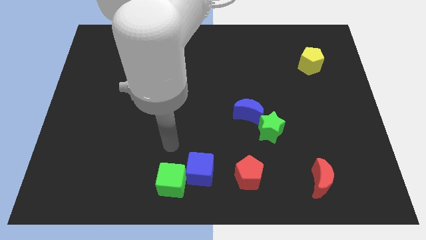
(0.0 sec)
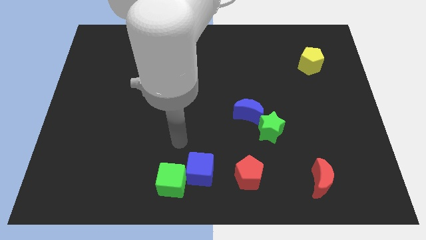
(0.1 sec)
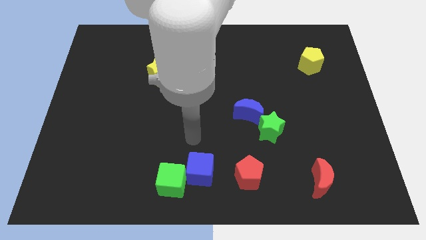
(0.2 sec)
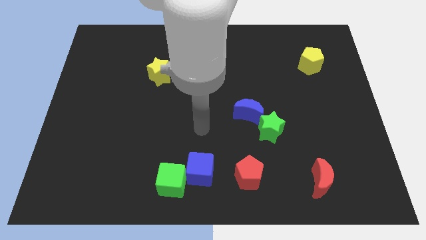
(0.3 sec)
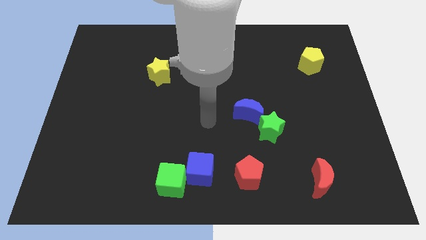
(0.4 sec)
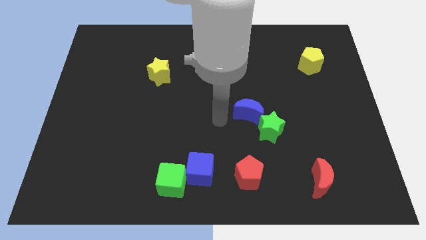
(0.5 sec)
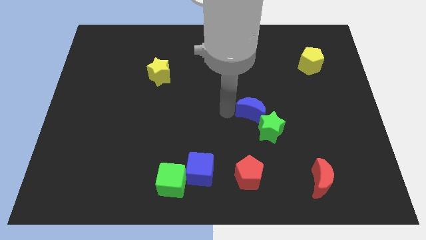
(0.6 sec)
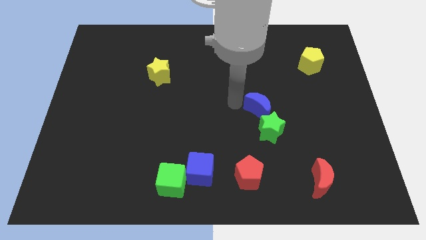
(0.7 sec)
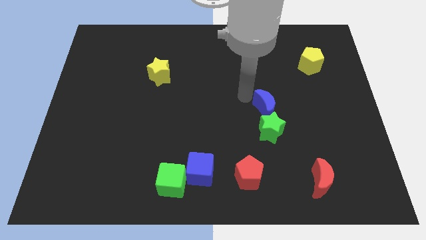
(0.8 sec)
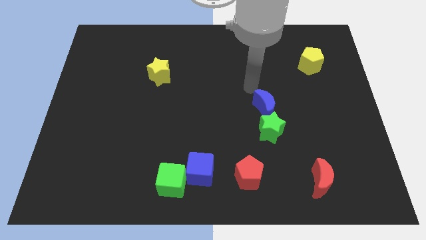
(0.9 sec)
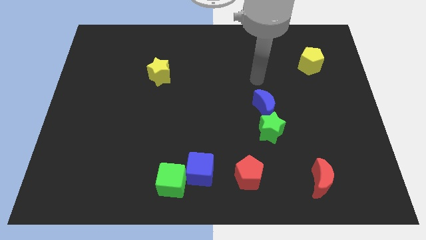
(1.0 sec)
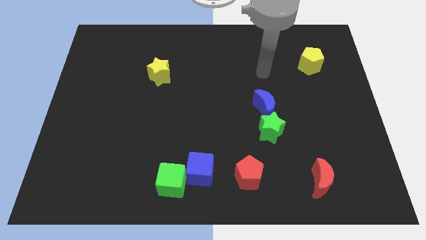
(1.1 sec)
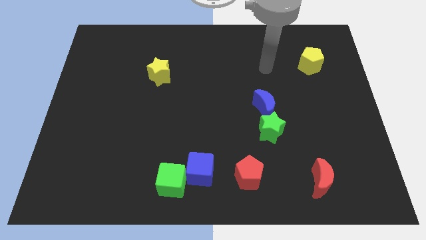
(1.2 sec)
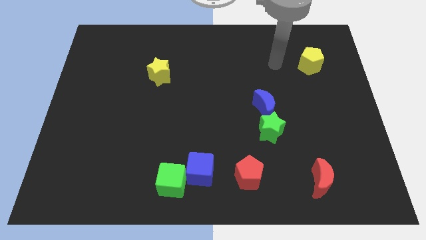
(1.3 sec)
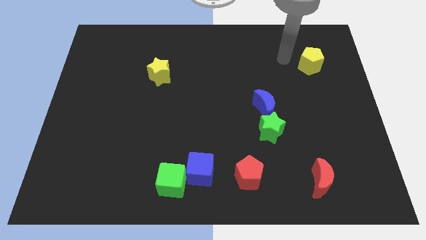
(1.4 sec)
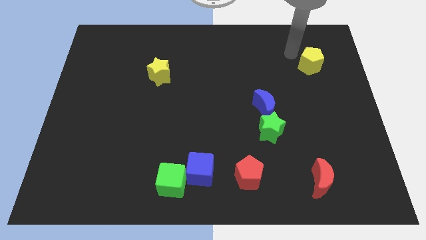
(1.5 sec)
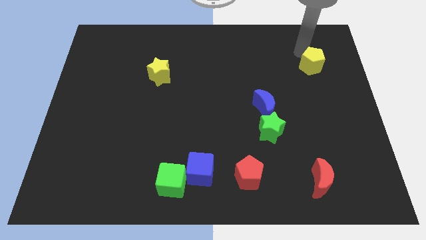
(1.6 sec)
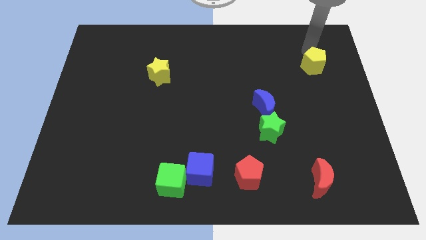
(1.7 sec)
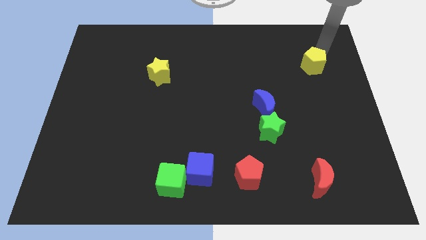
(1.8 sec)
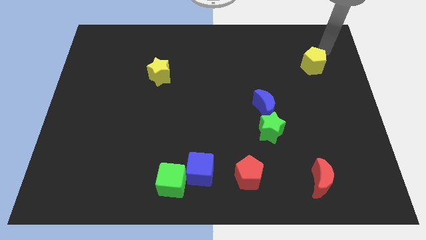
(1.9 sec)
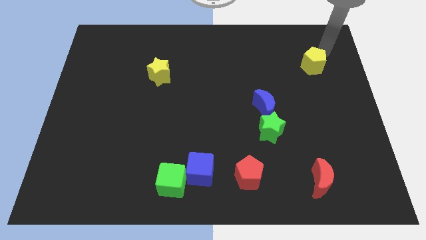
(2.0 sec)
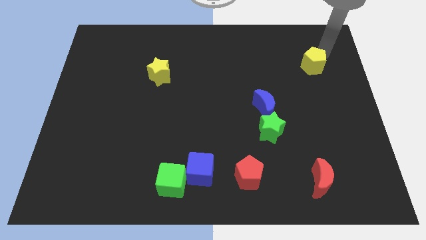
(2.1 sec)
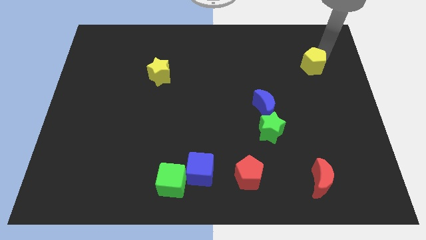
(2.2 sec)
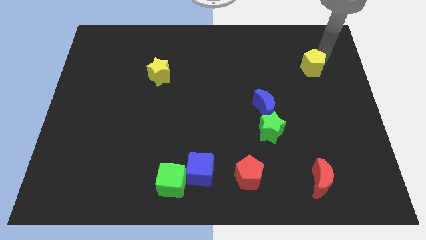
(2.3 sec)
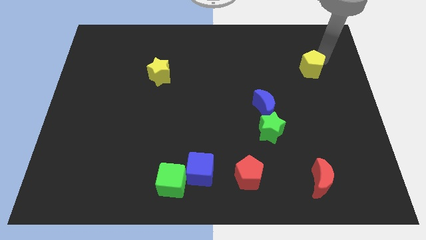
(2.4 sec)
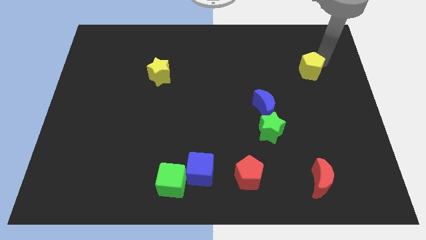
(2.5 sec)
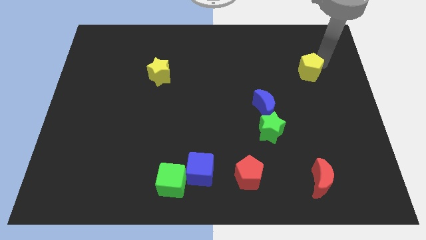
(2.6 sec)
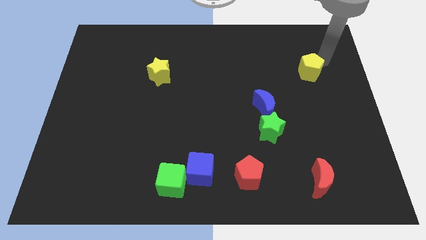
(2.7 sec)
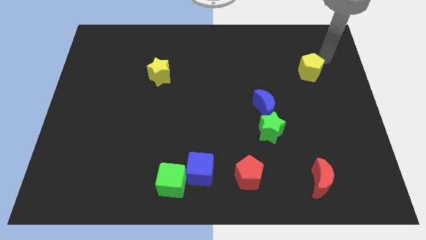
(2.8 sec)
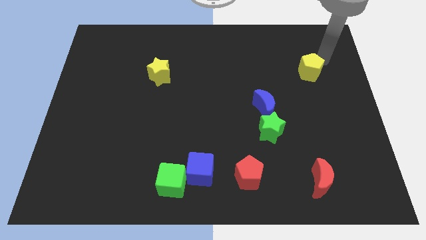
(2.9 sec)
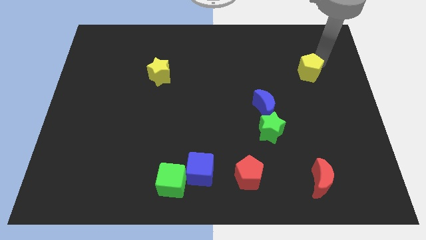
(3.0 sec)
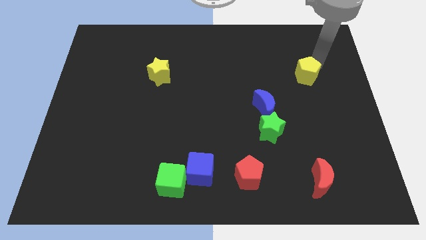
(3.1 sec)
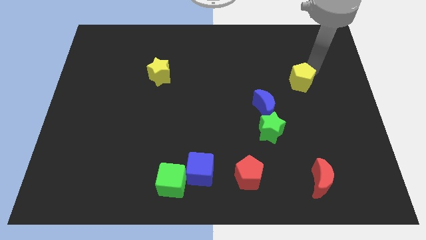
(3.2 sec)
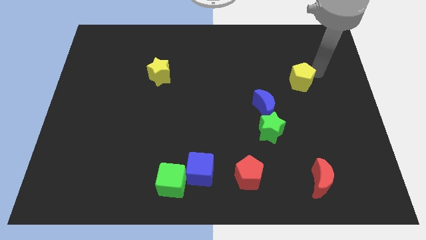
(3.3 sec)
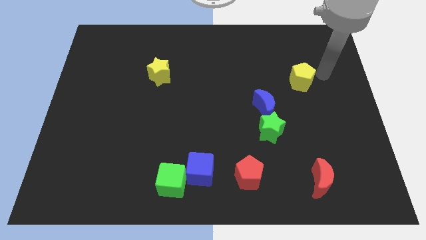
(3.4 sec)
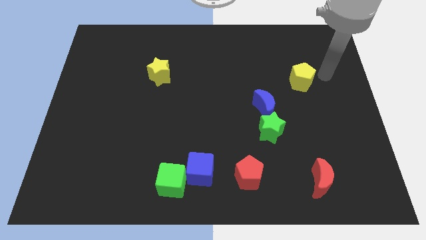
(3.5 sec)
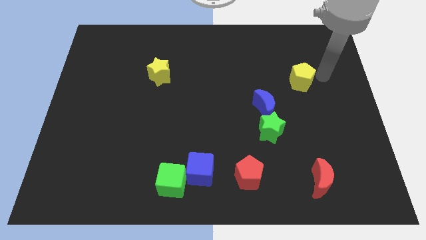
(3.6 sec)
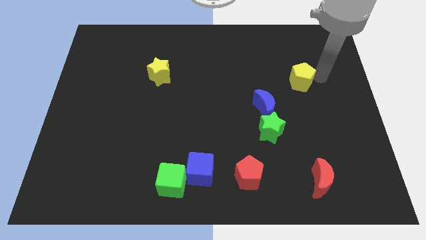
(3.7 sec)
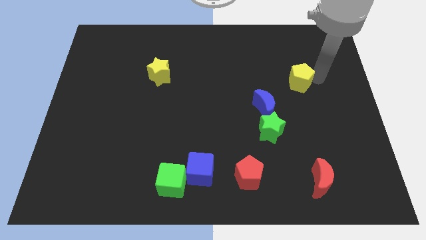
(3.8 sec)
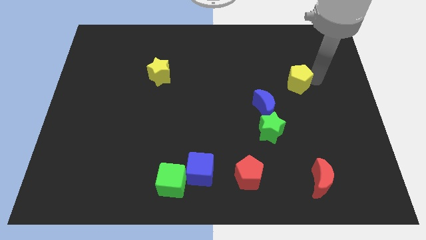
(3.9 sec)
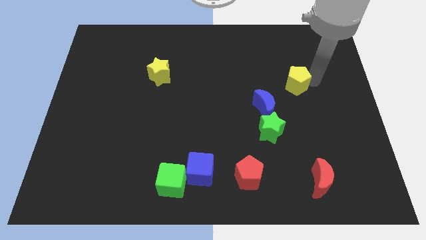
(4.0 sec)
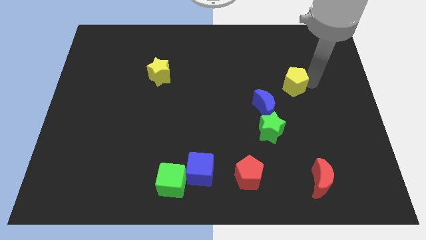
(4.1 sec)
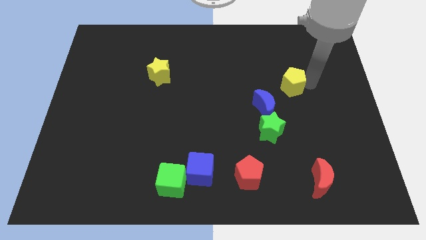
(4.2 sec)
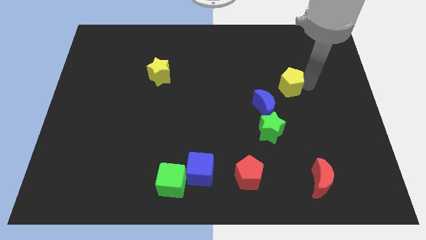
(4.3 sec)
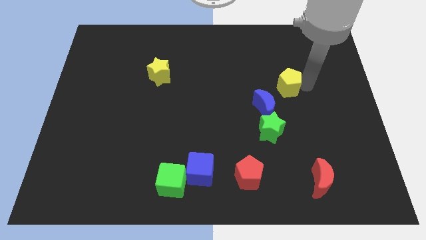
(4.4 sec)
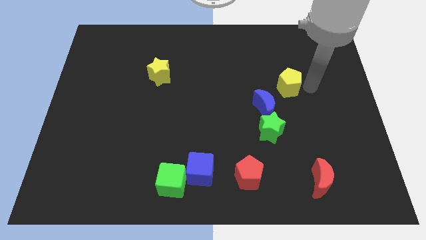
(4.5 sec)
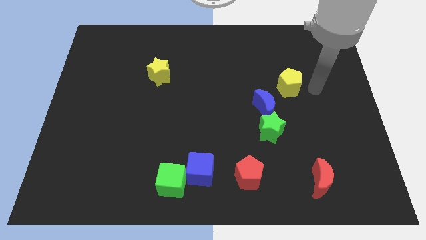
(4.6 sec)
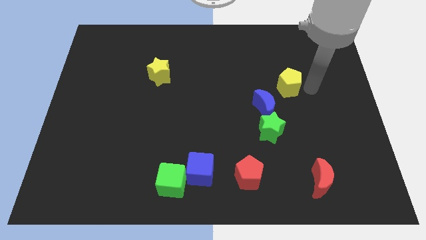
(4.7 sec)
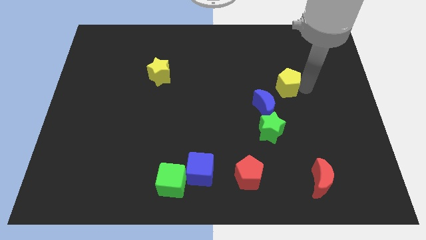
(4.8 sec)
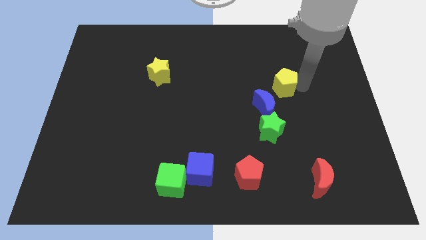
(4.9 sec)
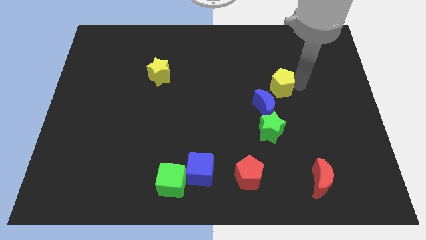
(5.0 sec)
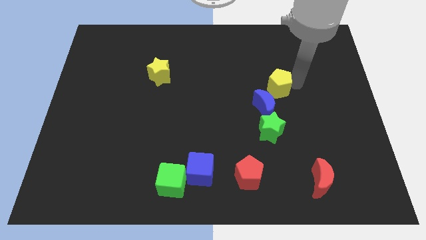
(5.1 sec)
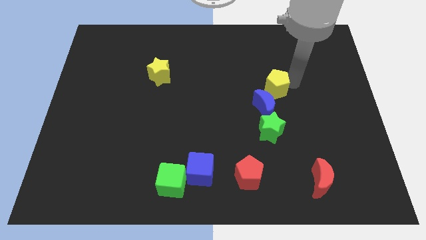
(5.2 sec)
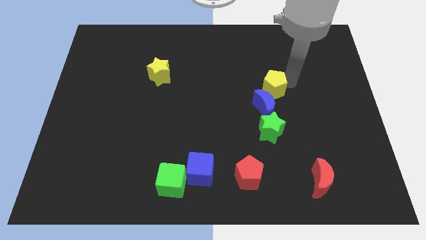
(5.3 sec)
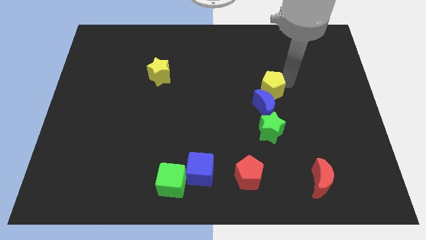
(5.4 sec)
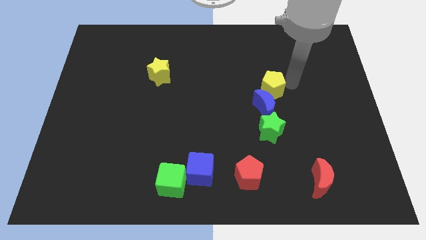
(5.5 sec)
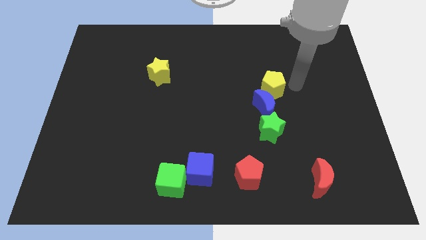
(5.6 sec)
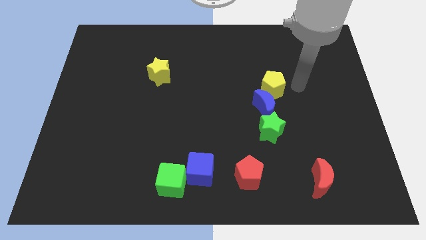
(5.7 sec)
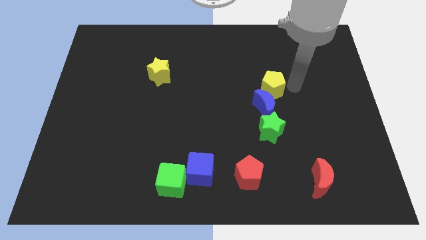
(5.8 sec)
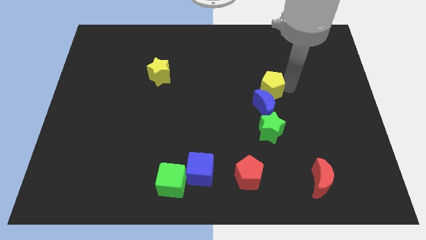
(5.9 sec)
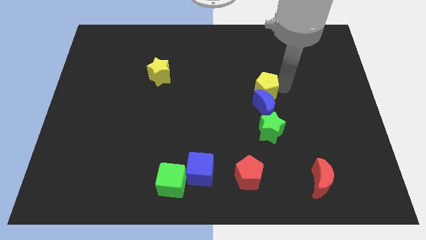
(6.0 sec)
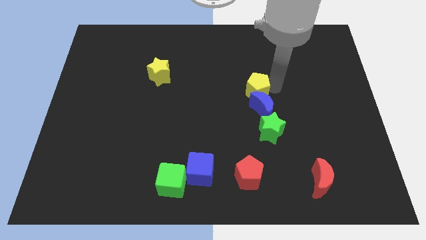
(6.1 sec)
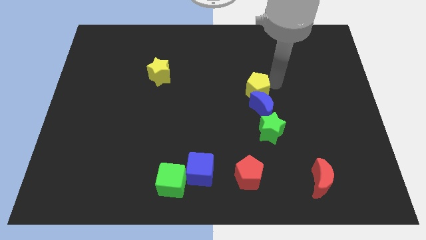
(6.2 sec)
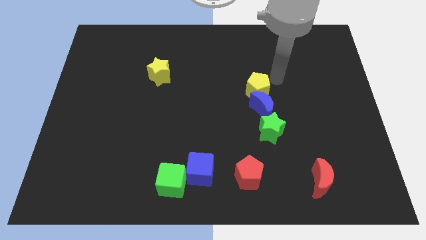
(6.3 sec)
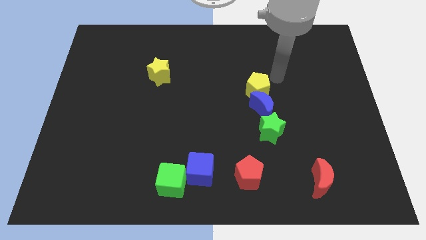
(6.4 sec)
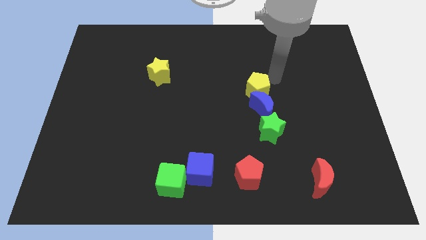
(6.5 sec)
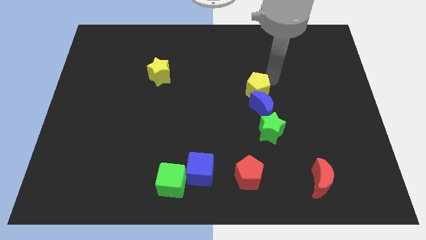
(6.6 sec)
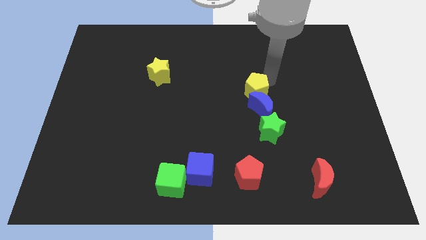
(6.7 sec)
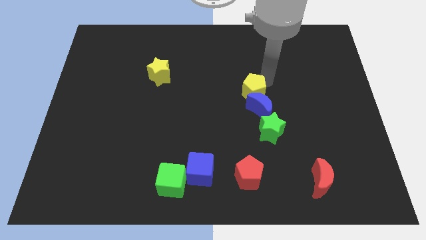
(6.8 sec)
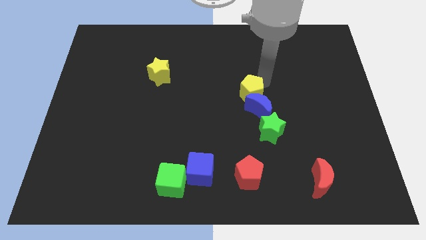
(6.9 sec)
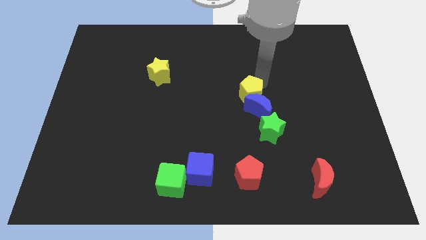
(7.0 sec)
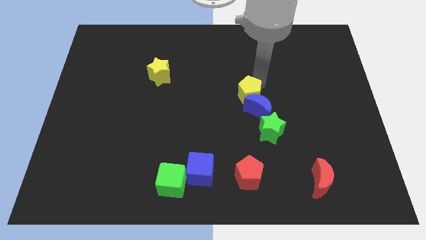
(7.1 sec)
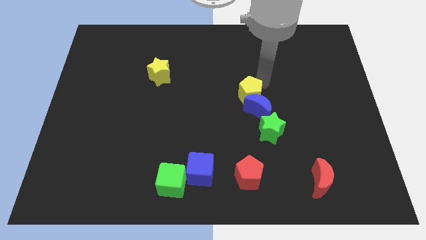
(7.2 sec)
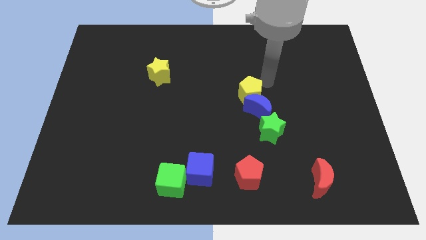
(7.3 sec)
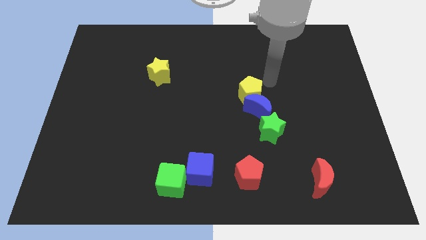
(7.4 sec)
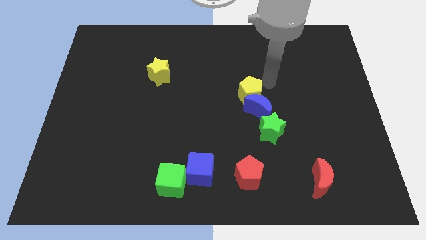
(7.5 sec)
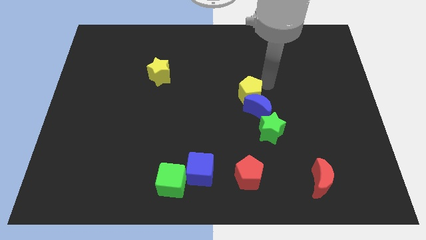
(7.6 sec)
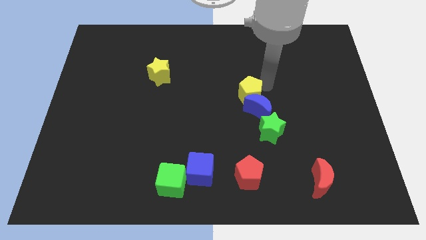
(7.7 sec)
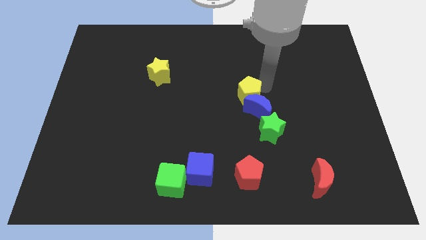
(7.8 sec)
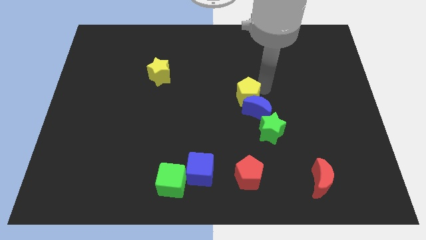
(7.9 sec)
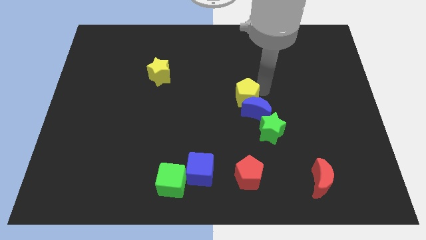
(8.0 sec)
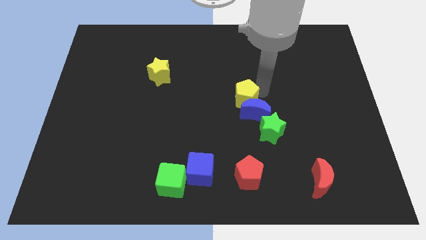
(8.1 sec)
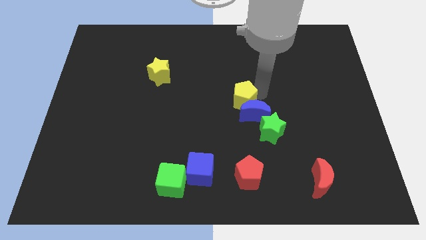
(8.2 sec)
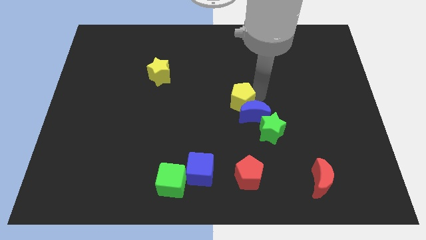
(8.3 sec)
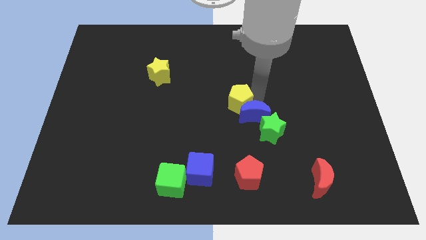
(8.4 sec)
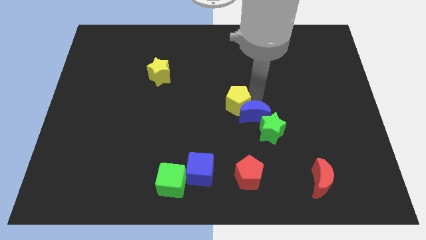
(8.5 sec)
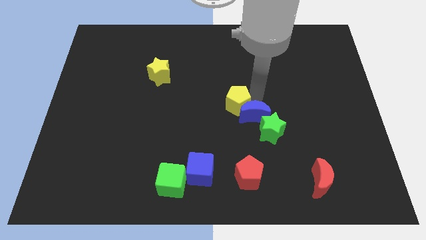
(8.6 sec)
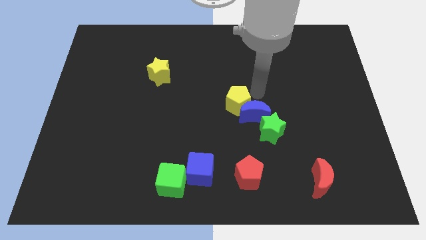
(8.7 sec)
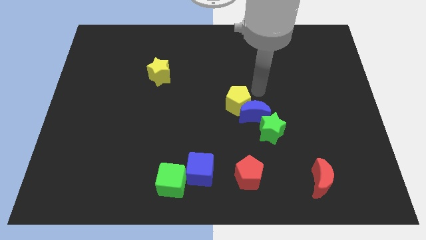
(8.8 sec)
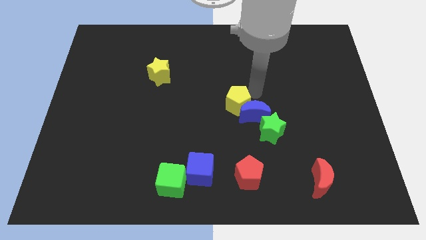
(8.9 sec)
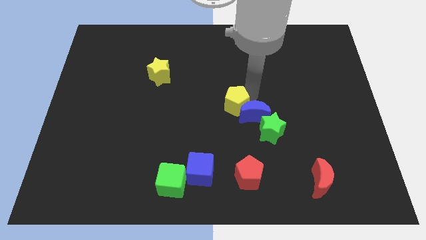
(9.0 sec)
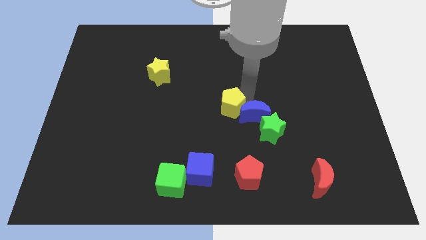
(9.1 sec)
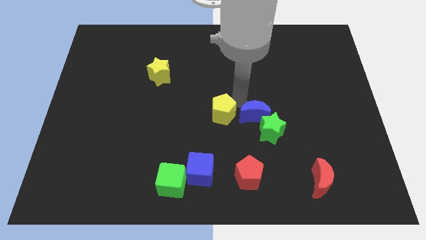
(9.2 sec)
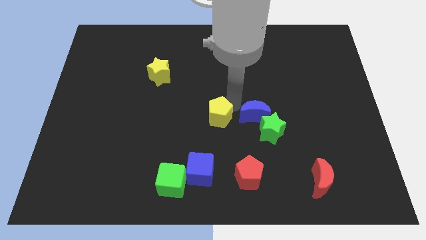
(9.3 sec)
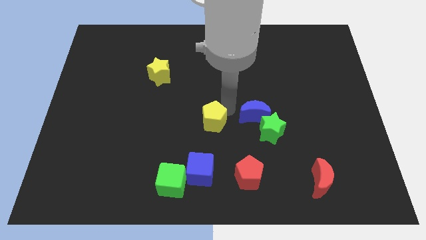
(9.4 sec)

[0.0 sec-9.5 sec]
push the yellow pentagon to the top of the blue cube
